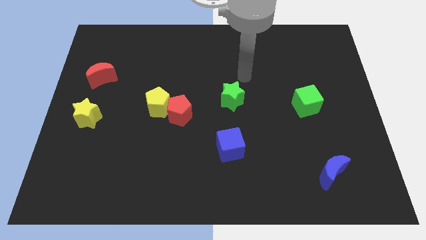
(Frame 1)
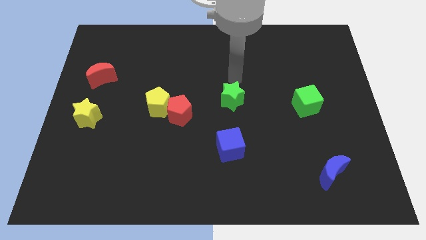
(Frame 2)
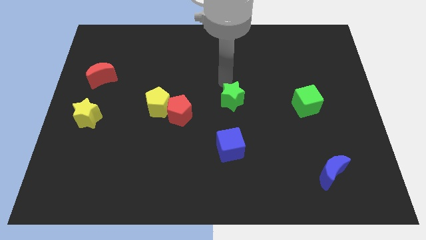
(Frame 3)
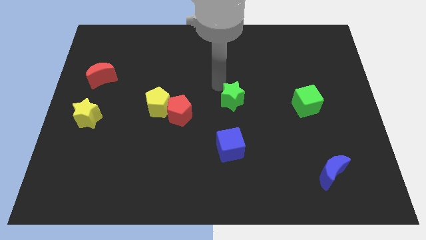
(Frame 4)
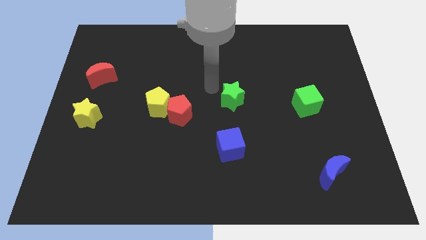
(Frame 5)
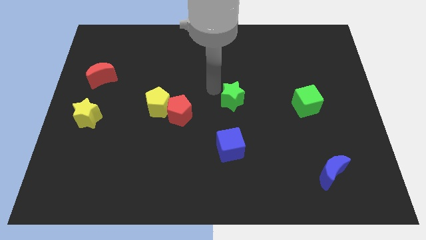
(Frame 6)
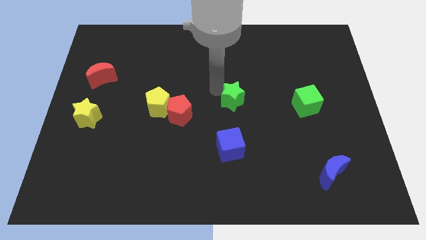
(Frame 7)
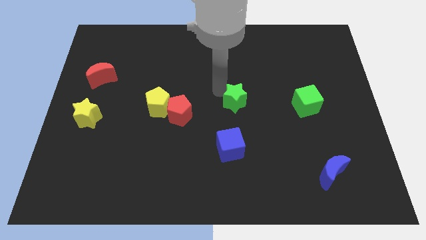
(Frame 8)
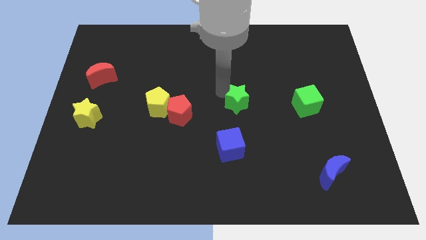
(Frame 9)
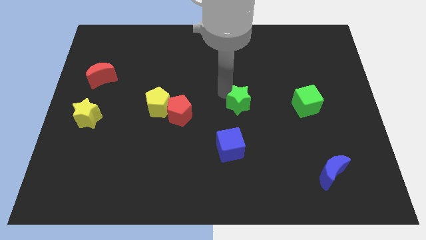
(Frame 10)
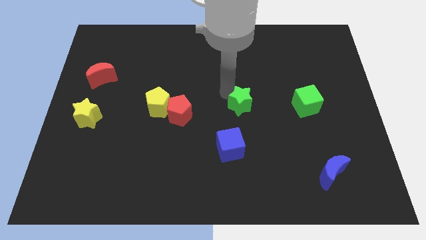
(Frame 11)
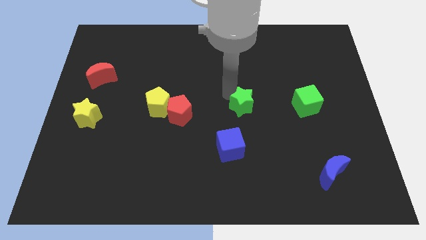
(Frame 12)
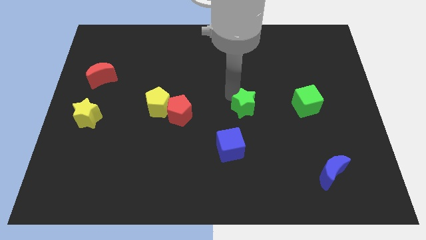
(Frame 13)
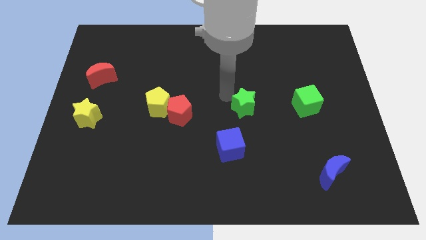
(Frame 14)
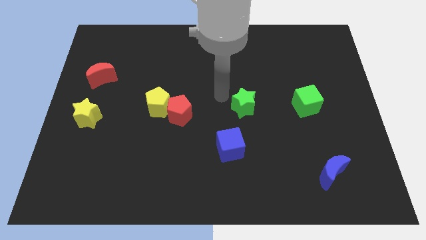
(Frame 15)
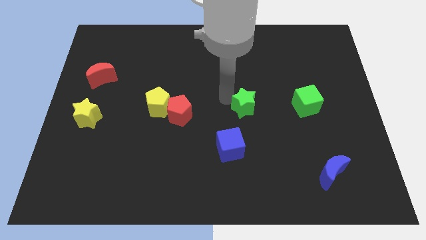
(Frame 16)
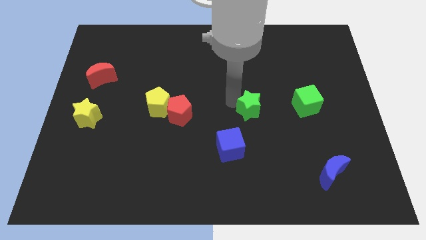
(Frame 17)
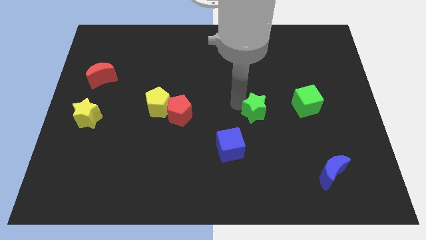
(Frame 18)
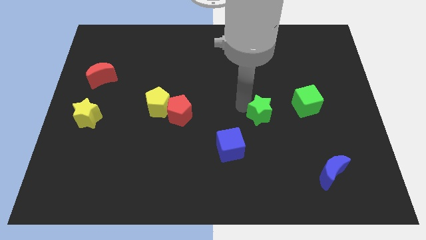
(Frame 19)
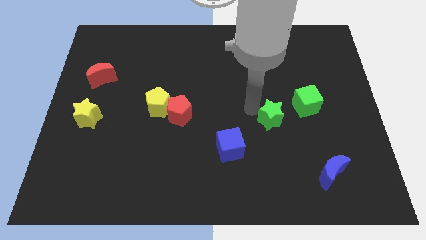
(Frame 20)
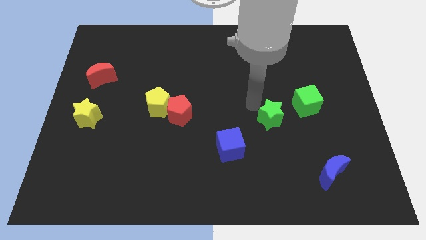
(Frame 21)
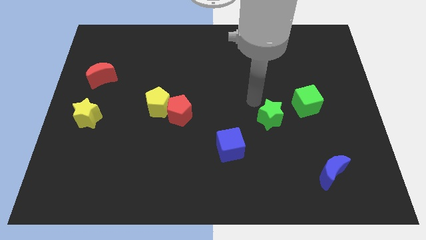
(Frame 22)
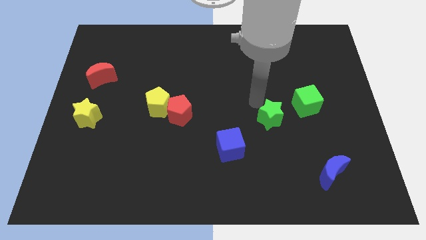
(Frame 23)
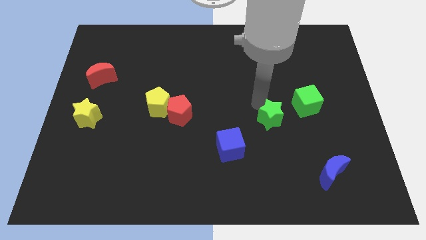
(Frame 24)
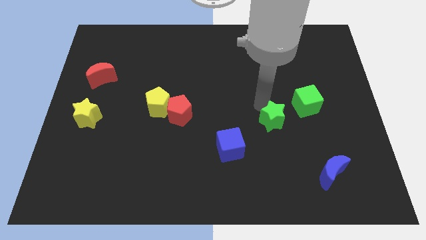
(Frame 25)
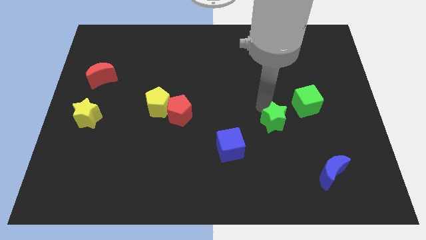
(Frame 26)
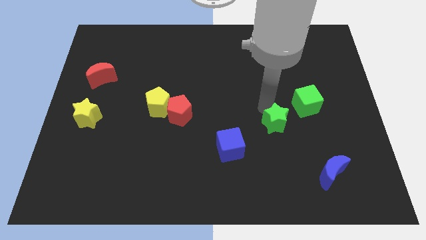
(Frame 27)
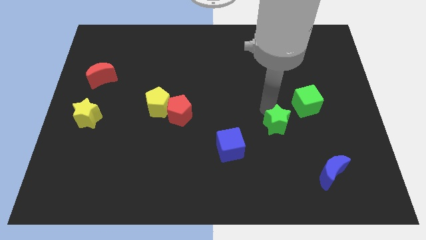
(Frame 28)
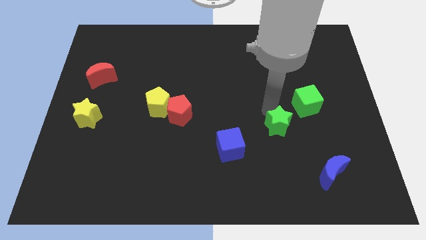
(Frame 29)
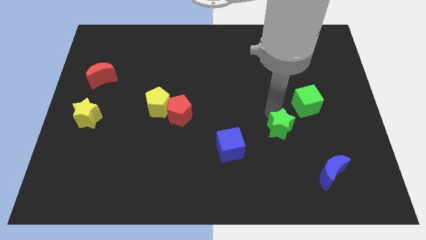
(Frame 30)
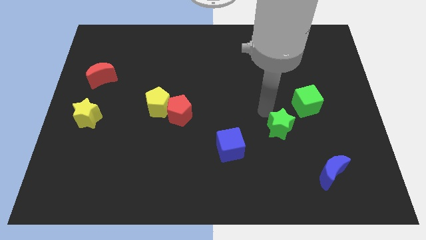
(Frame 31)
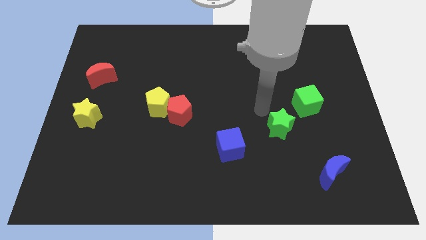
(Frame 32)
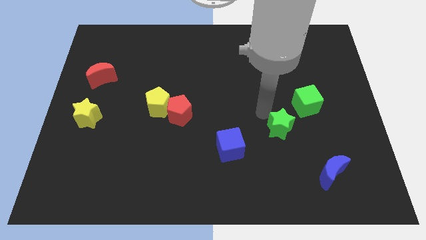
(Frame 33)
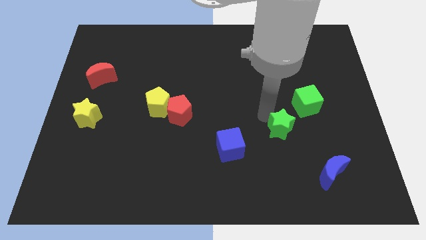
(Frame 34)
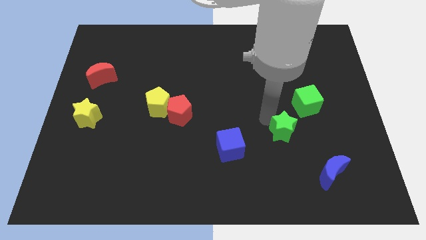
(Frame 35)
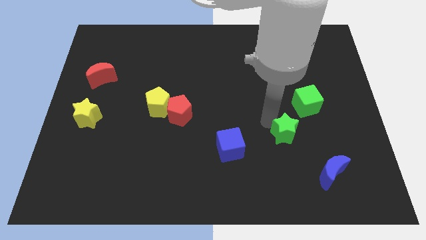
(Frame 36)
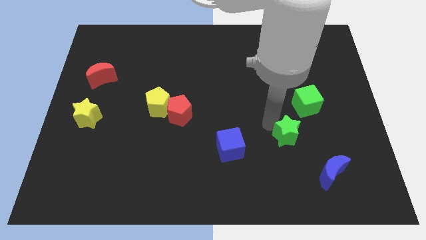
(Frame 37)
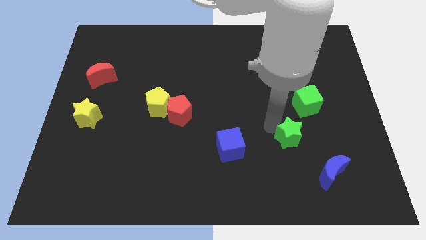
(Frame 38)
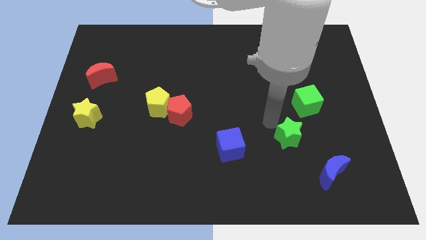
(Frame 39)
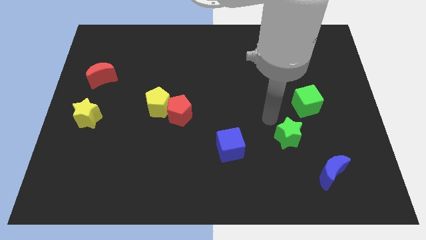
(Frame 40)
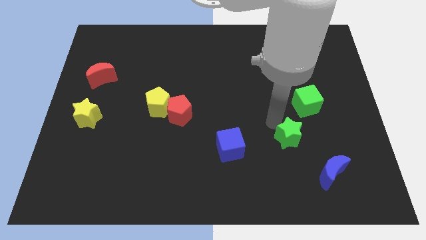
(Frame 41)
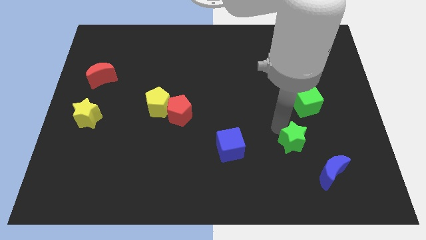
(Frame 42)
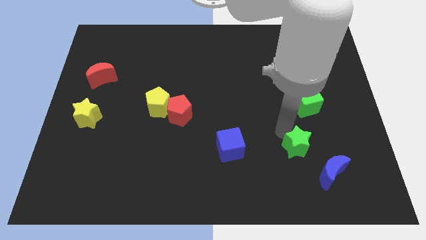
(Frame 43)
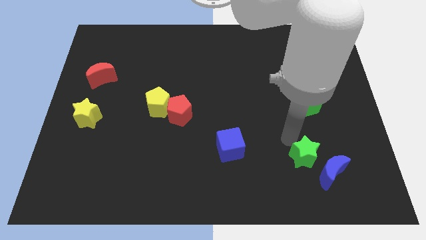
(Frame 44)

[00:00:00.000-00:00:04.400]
push the green star close to the blue moon

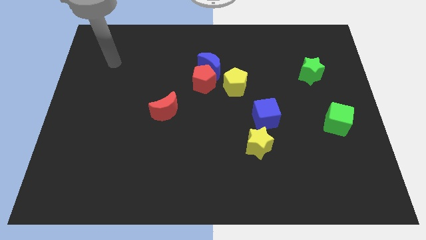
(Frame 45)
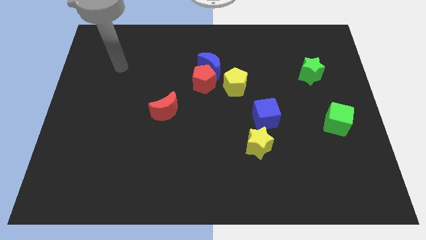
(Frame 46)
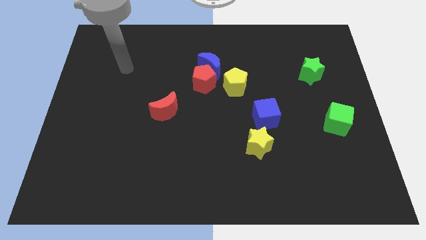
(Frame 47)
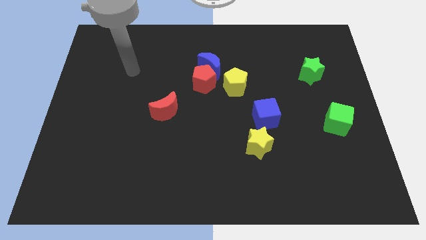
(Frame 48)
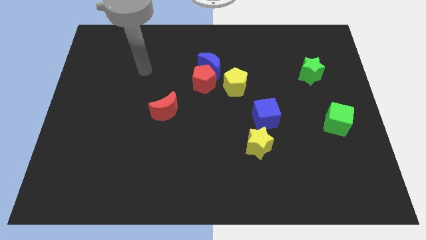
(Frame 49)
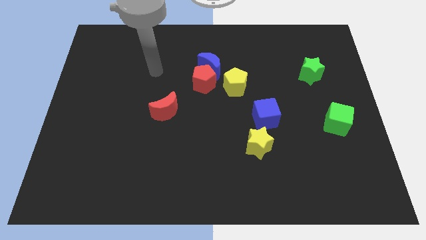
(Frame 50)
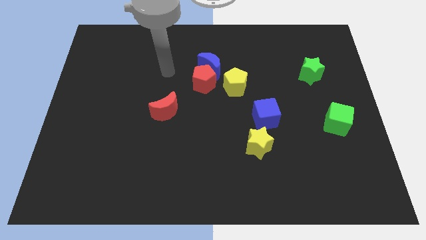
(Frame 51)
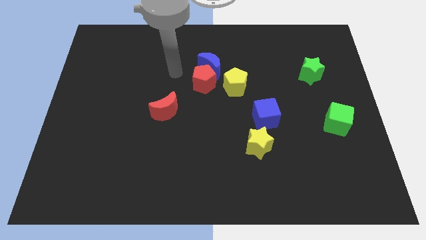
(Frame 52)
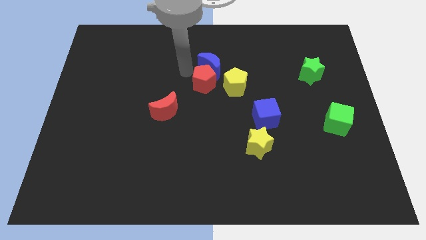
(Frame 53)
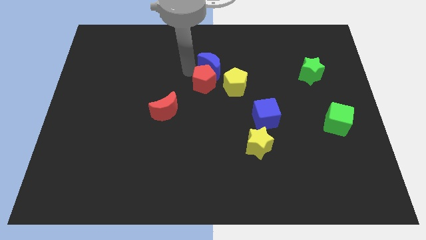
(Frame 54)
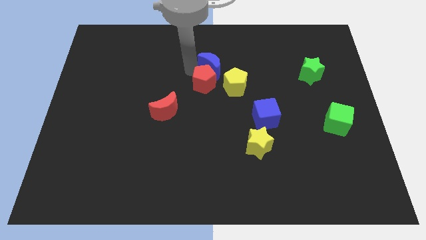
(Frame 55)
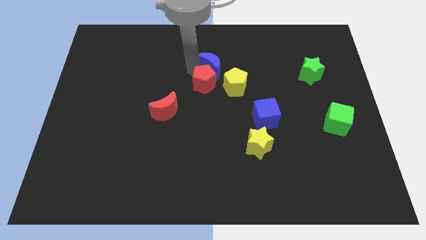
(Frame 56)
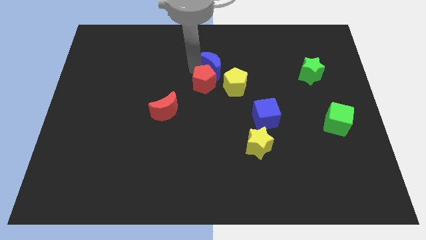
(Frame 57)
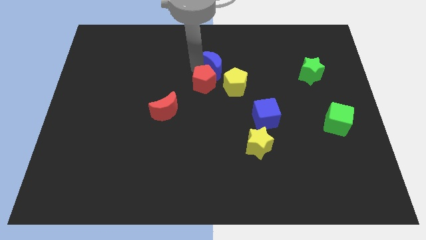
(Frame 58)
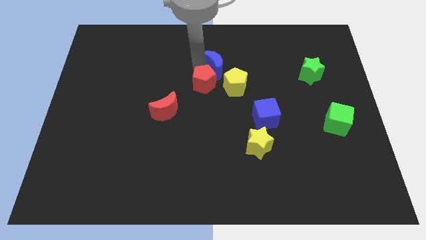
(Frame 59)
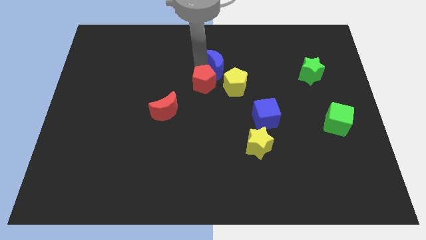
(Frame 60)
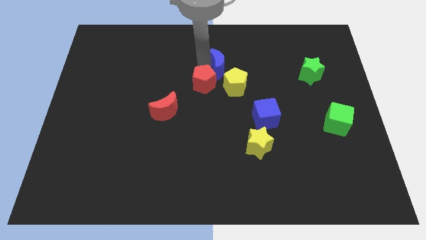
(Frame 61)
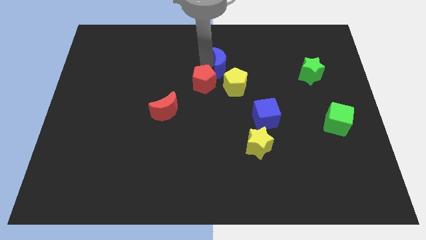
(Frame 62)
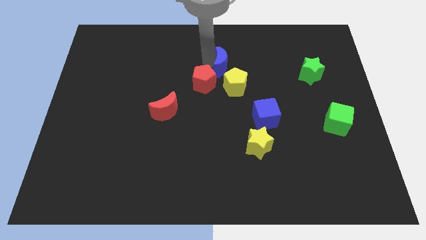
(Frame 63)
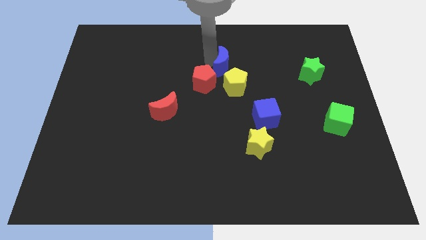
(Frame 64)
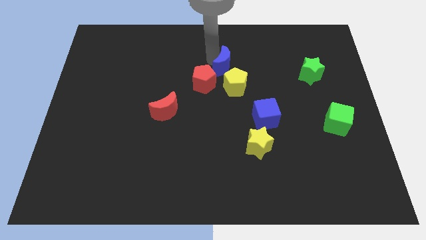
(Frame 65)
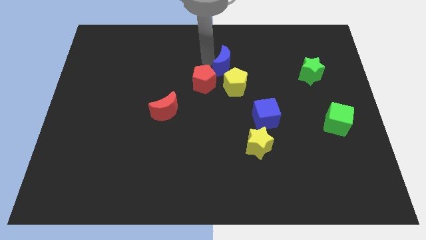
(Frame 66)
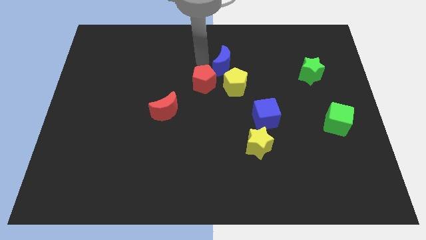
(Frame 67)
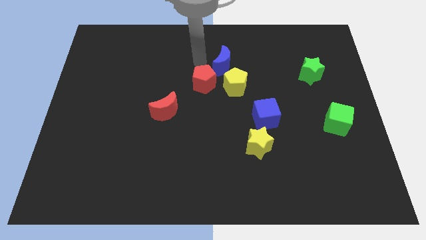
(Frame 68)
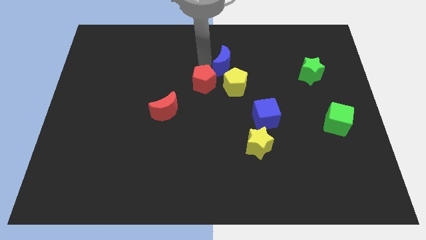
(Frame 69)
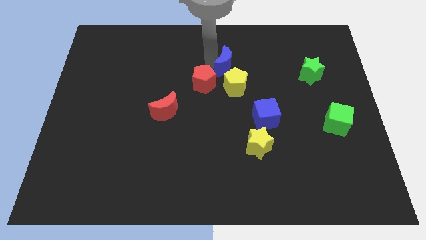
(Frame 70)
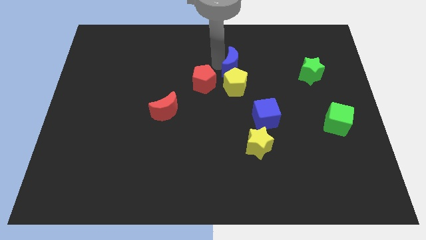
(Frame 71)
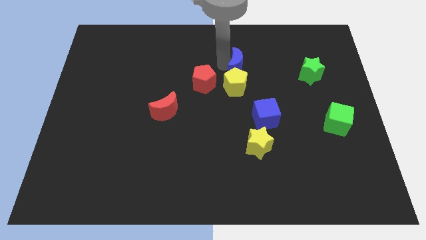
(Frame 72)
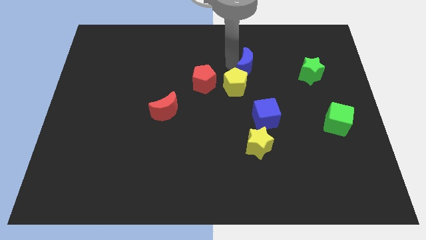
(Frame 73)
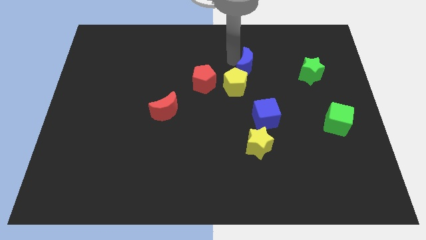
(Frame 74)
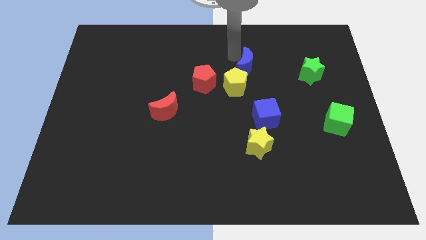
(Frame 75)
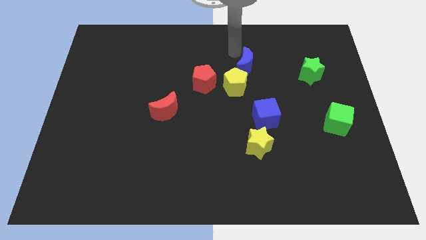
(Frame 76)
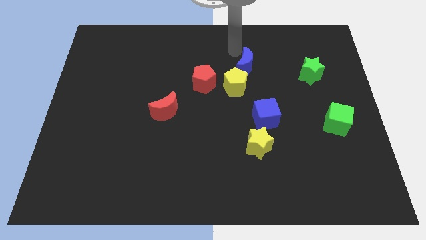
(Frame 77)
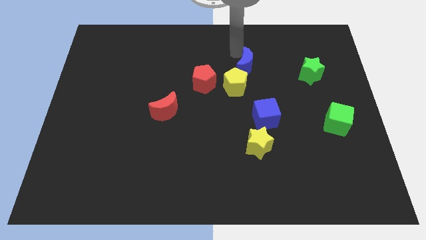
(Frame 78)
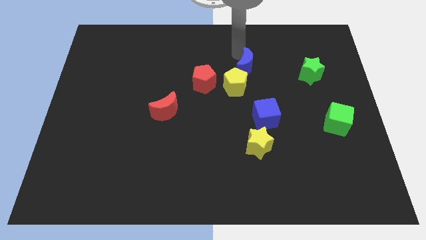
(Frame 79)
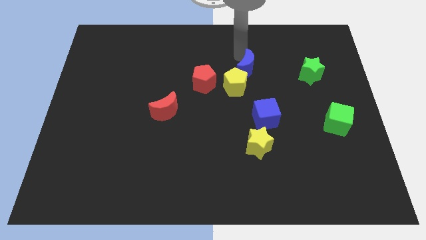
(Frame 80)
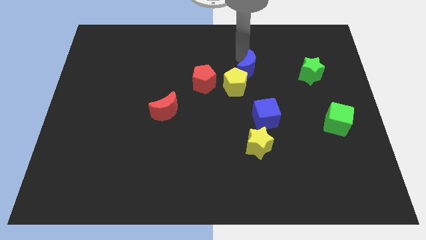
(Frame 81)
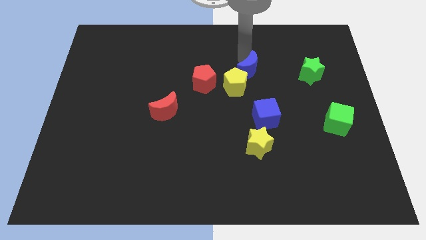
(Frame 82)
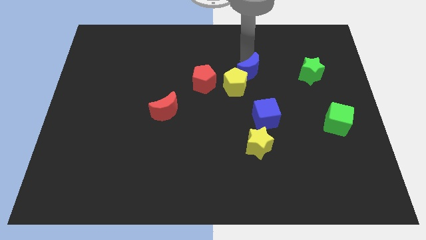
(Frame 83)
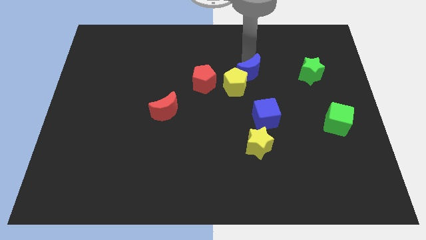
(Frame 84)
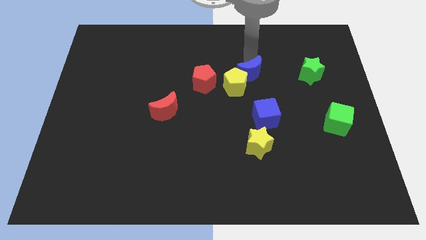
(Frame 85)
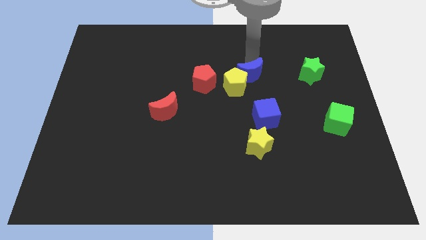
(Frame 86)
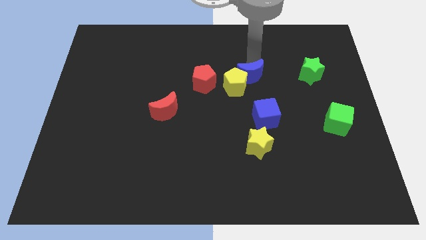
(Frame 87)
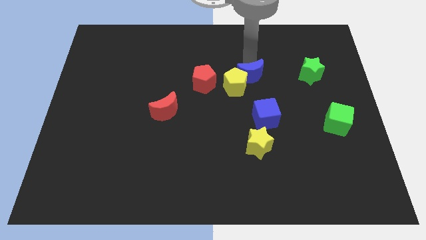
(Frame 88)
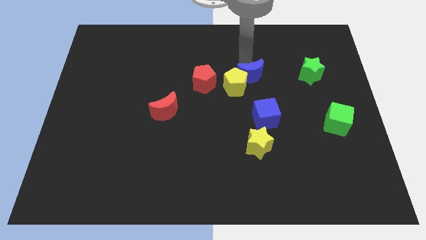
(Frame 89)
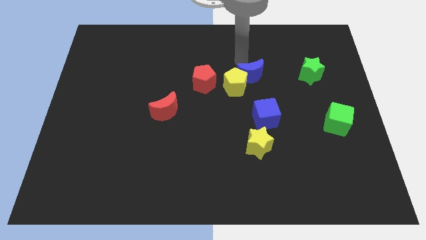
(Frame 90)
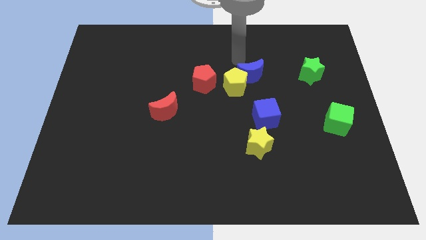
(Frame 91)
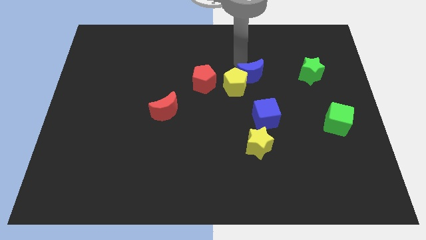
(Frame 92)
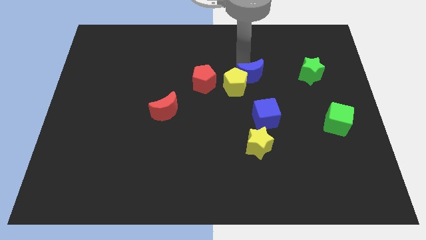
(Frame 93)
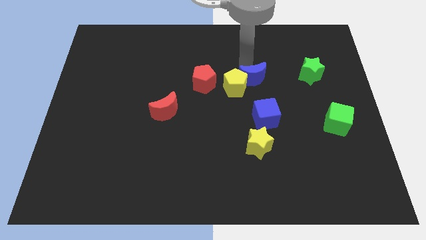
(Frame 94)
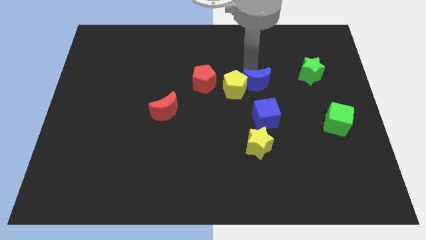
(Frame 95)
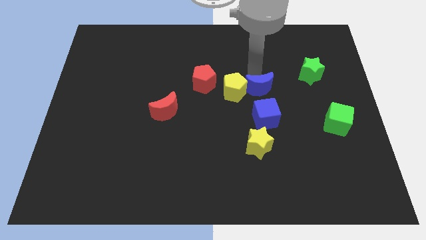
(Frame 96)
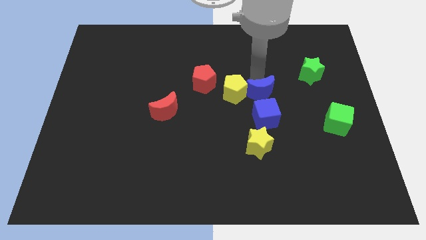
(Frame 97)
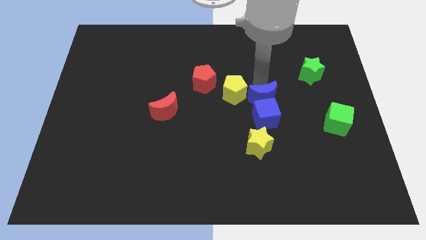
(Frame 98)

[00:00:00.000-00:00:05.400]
move the blue moon to the blue cube
